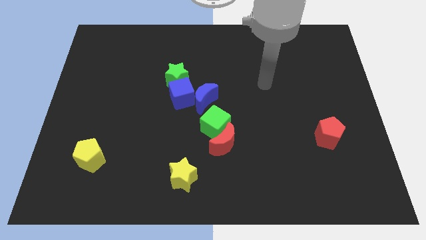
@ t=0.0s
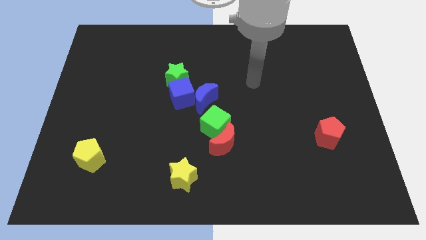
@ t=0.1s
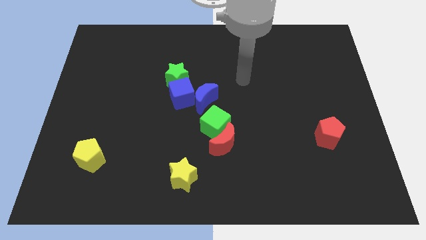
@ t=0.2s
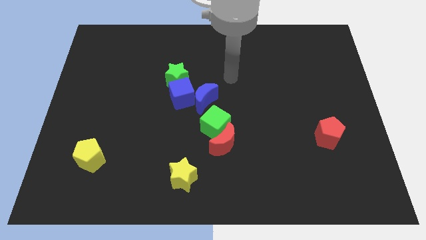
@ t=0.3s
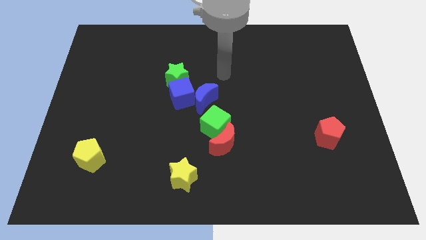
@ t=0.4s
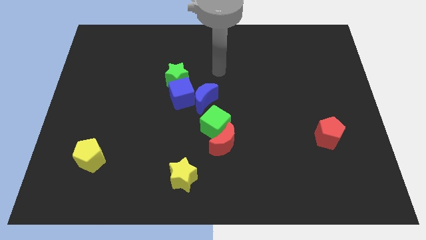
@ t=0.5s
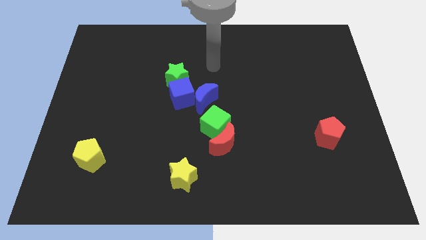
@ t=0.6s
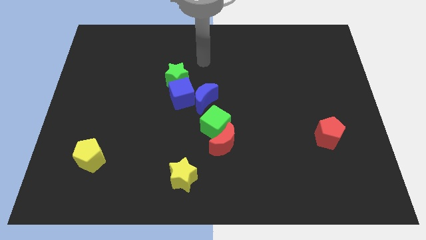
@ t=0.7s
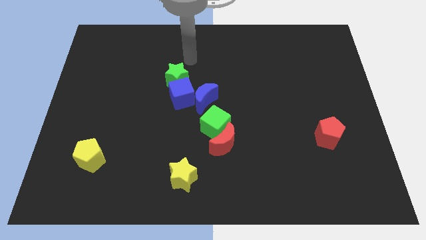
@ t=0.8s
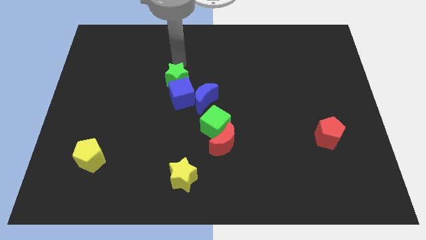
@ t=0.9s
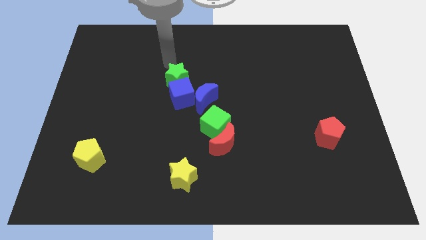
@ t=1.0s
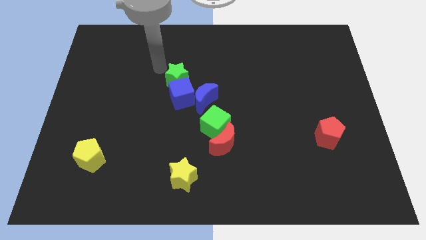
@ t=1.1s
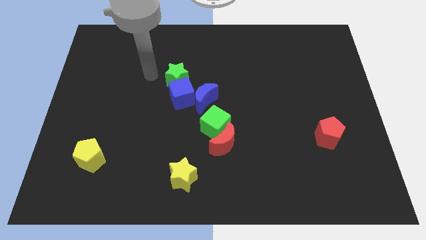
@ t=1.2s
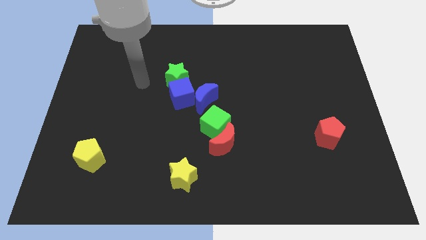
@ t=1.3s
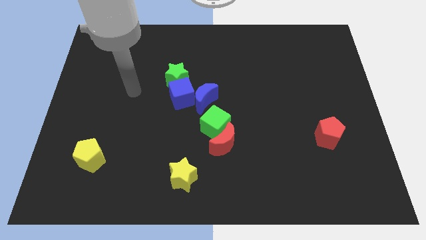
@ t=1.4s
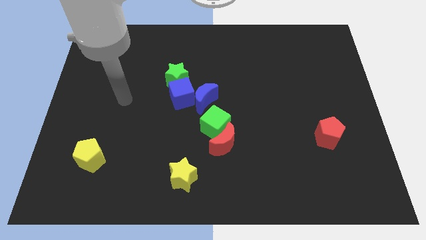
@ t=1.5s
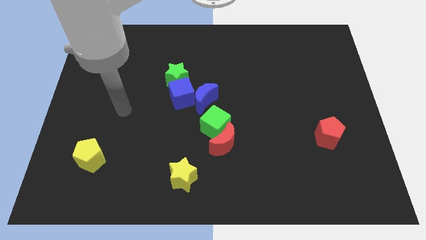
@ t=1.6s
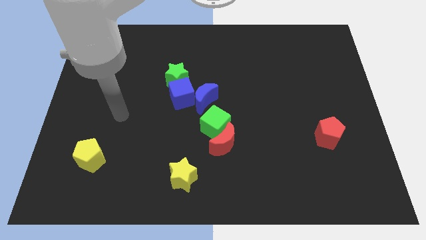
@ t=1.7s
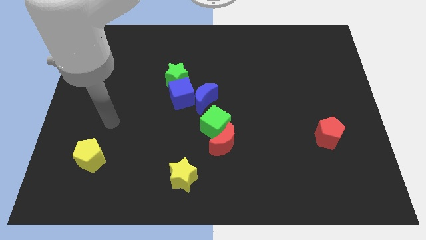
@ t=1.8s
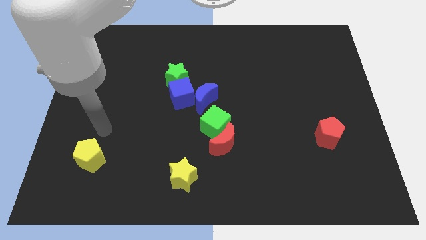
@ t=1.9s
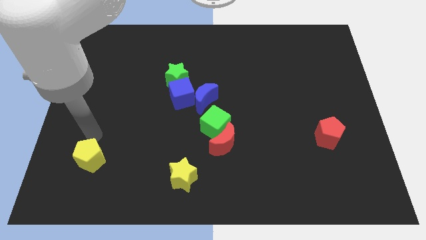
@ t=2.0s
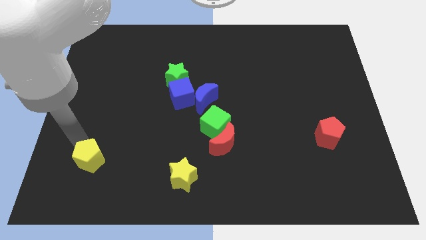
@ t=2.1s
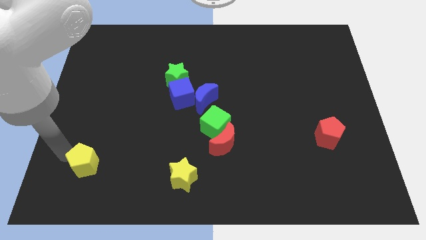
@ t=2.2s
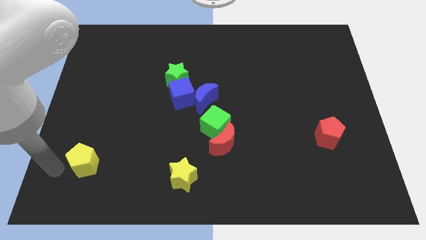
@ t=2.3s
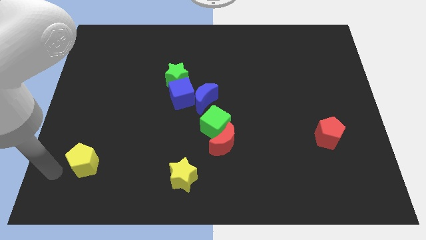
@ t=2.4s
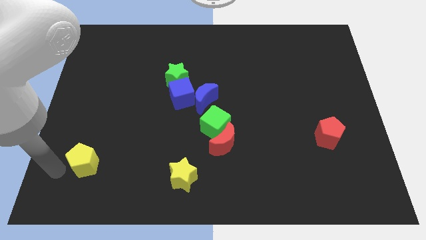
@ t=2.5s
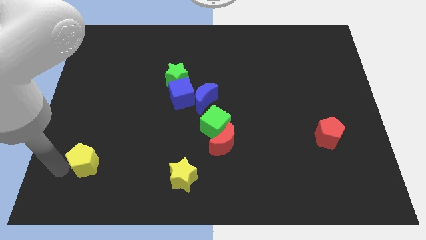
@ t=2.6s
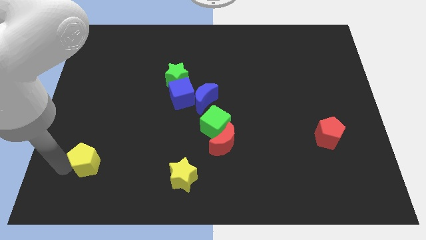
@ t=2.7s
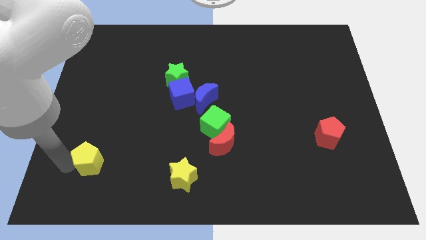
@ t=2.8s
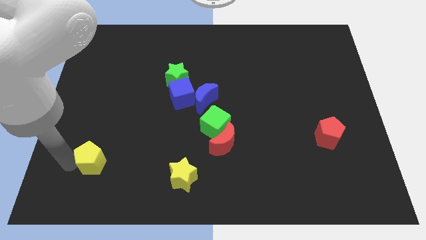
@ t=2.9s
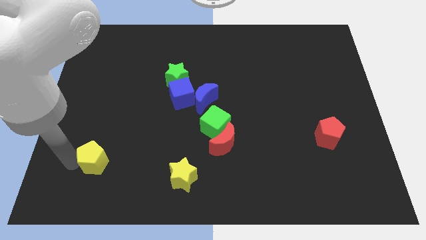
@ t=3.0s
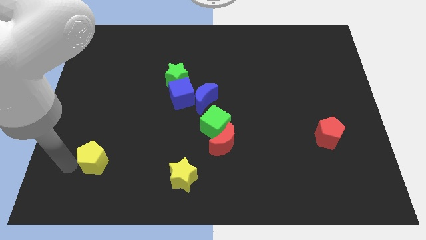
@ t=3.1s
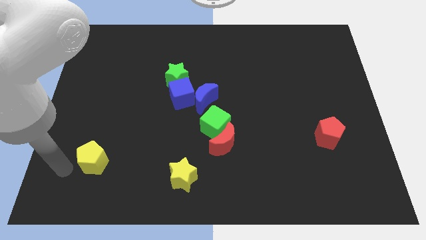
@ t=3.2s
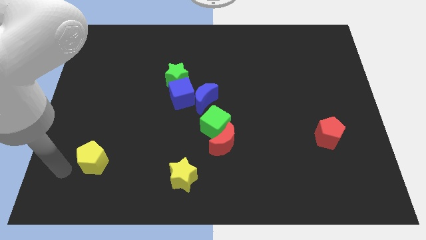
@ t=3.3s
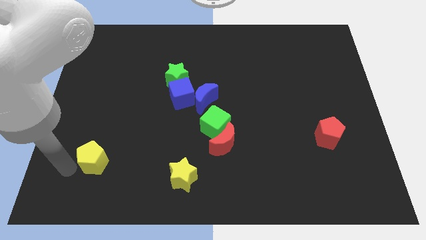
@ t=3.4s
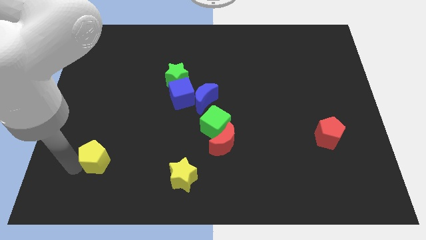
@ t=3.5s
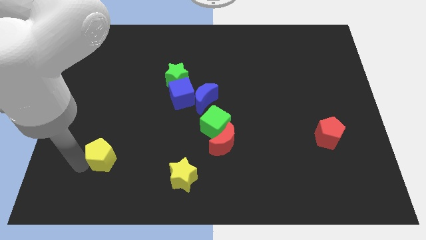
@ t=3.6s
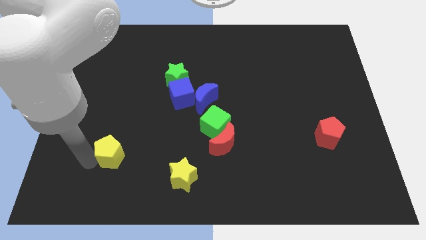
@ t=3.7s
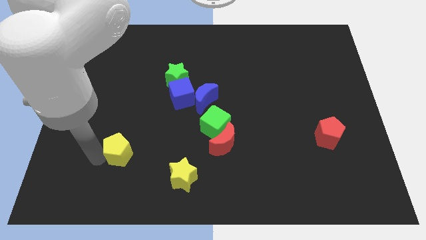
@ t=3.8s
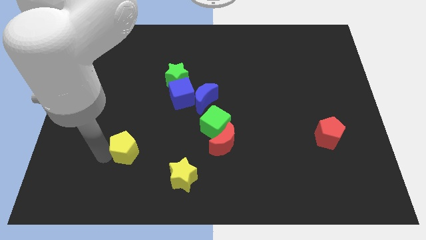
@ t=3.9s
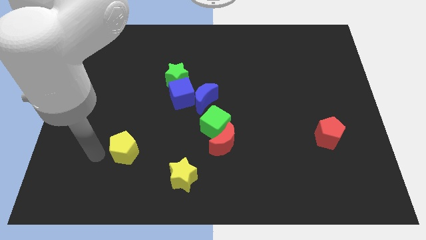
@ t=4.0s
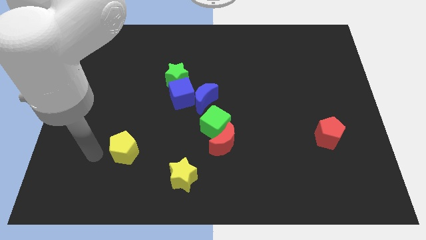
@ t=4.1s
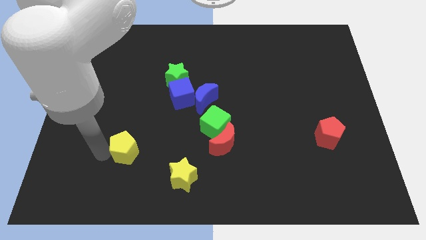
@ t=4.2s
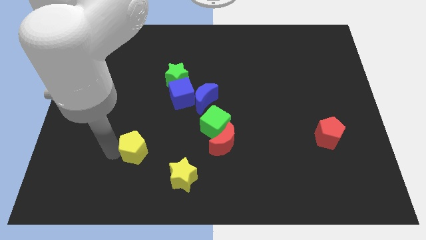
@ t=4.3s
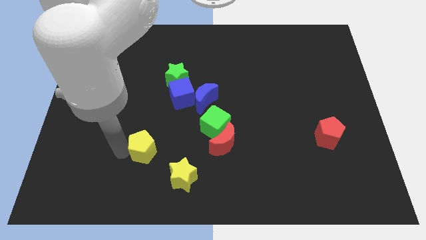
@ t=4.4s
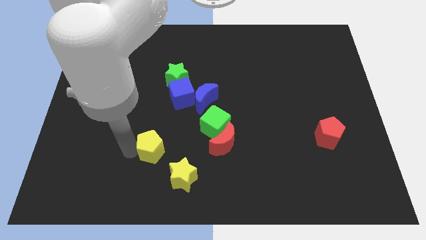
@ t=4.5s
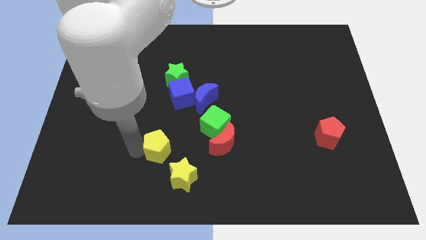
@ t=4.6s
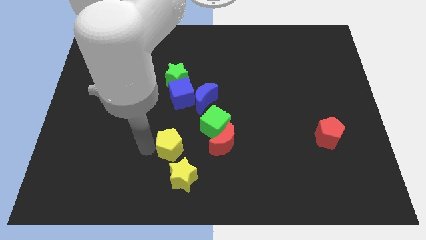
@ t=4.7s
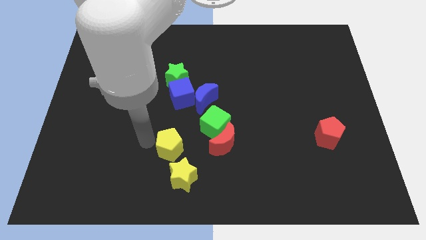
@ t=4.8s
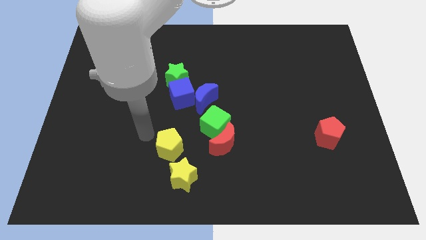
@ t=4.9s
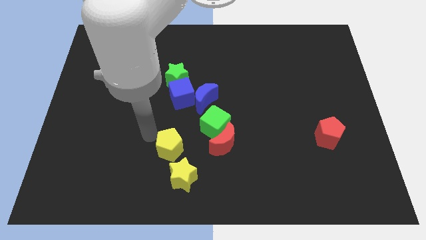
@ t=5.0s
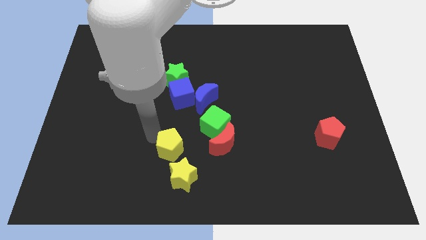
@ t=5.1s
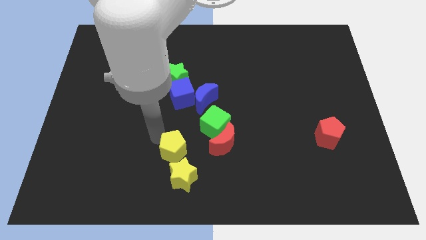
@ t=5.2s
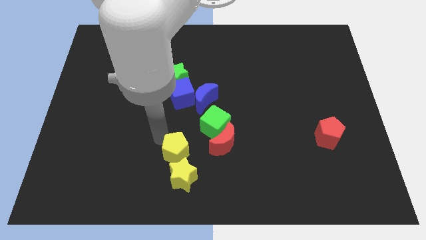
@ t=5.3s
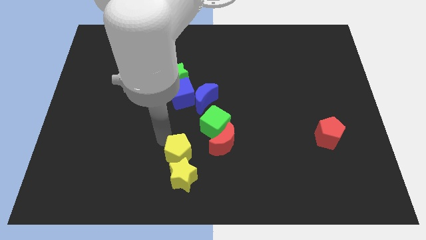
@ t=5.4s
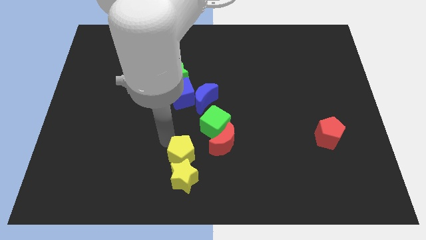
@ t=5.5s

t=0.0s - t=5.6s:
push the yellow pentagon diagonally down and to the left of the red moon

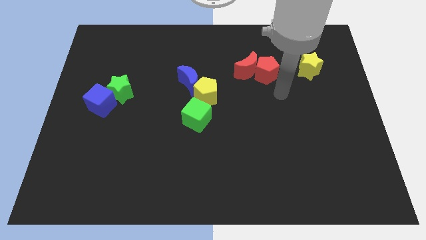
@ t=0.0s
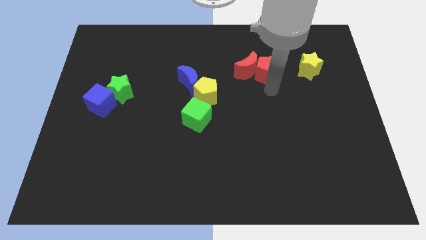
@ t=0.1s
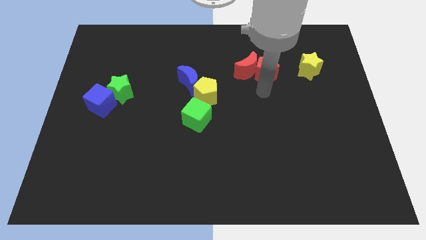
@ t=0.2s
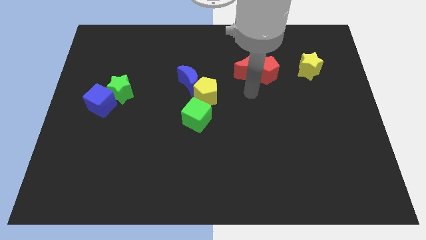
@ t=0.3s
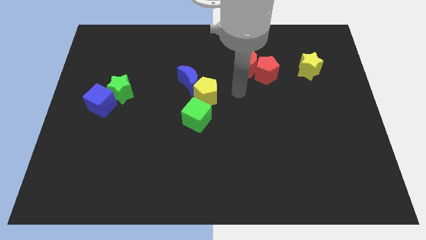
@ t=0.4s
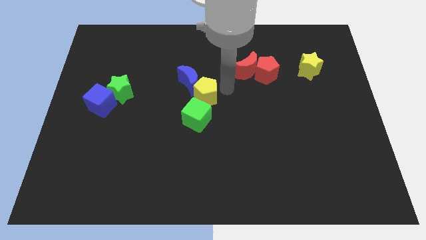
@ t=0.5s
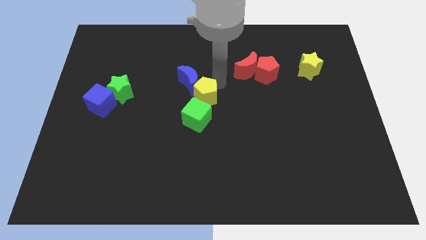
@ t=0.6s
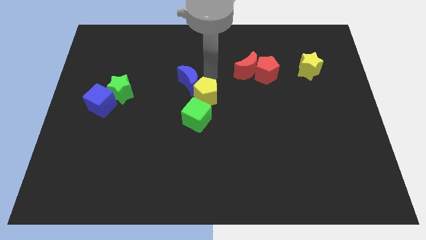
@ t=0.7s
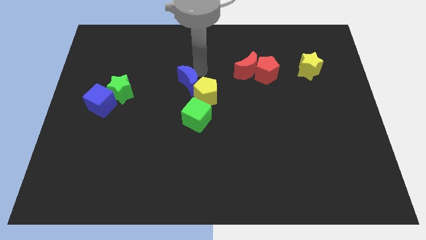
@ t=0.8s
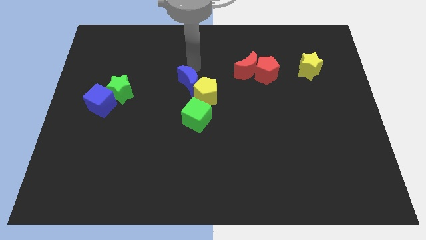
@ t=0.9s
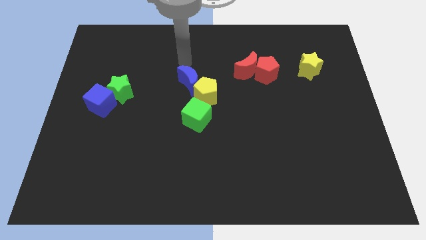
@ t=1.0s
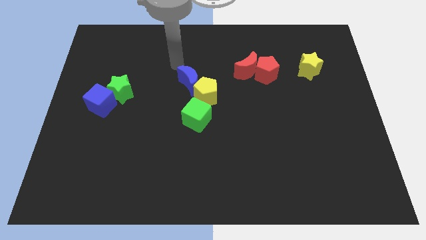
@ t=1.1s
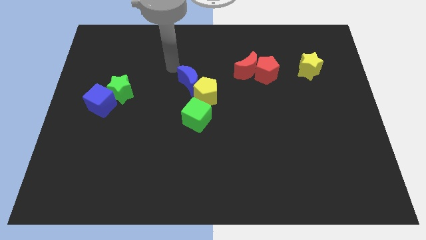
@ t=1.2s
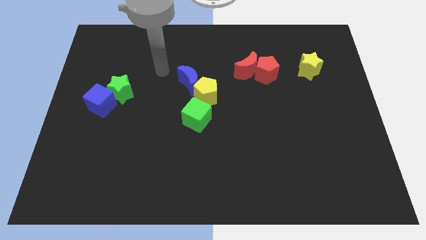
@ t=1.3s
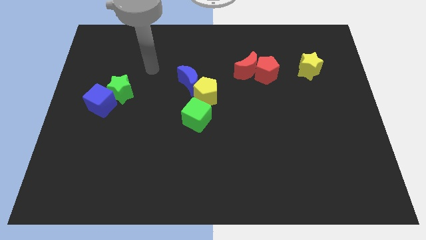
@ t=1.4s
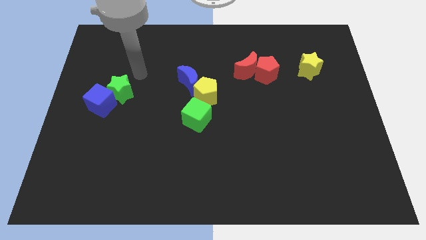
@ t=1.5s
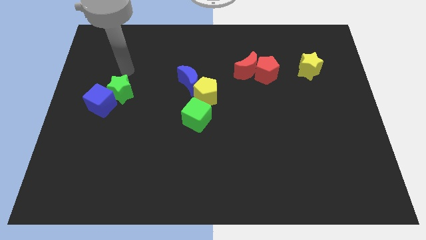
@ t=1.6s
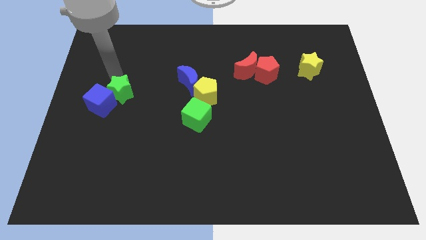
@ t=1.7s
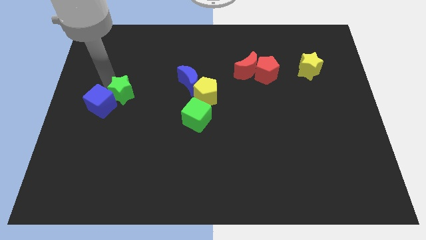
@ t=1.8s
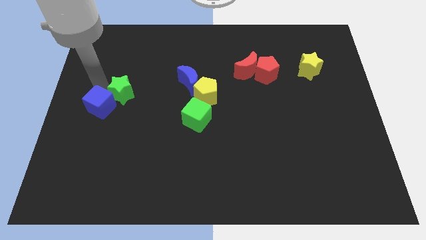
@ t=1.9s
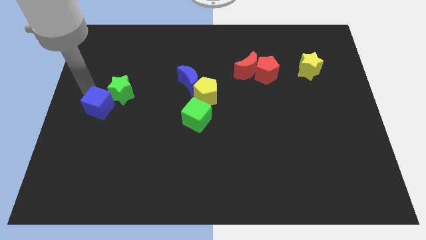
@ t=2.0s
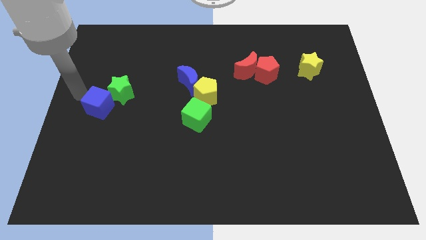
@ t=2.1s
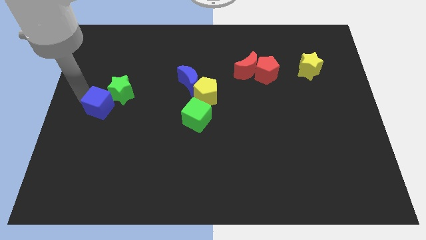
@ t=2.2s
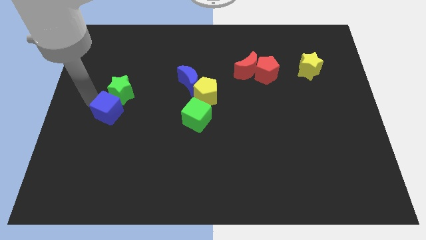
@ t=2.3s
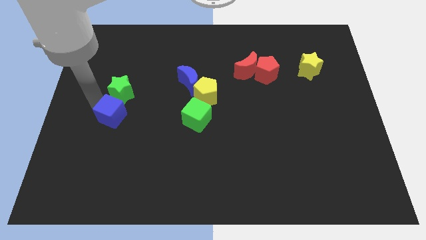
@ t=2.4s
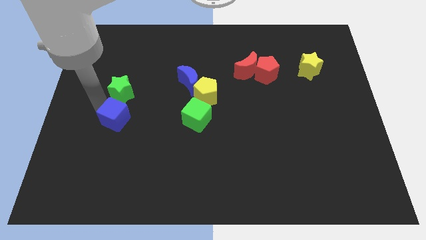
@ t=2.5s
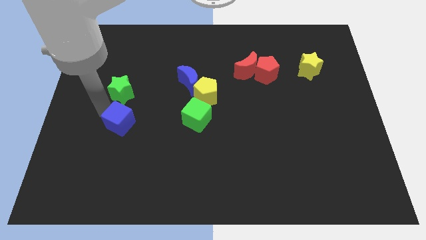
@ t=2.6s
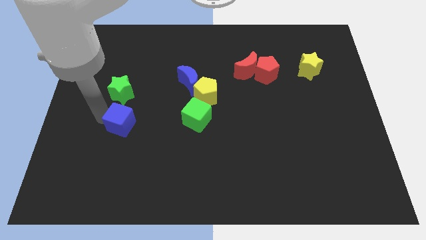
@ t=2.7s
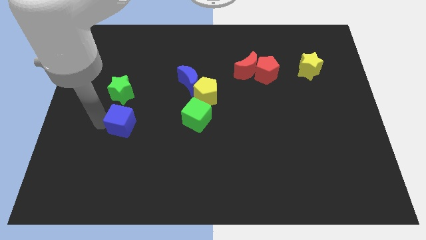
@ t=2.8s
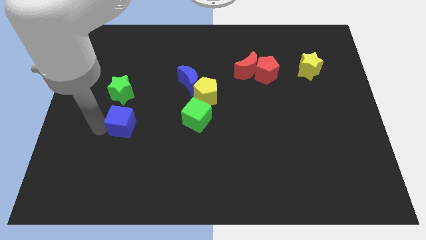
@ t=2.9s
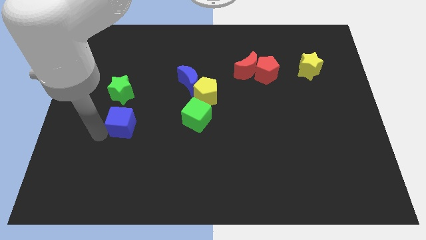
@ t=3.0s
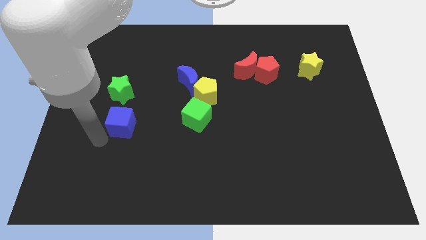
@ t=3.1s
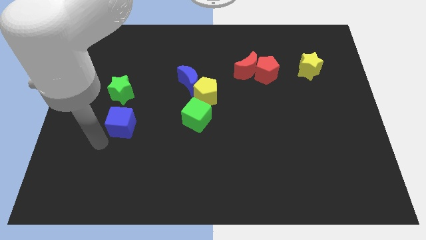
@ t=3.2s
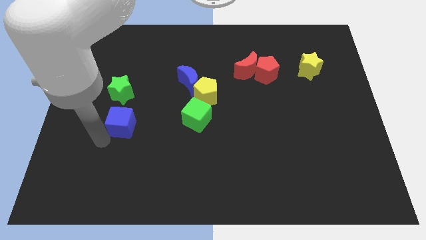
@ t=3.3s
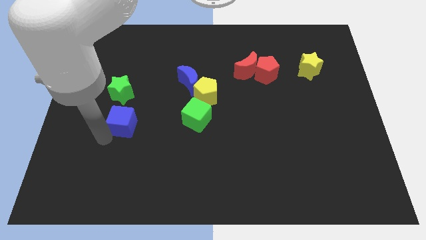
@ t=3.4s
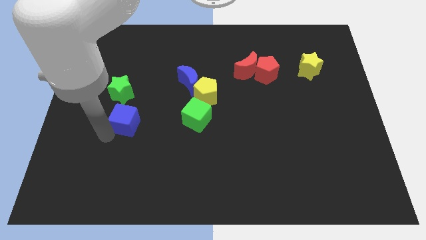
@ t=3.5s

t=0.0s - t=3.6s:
slide the blue cube to the bottom right of the green star
